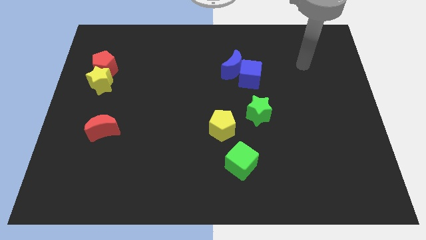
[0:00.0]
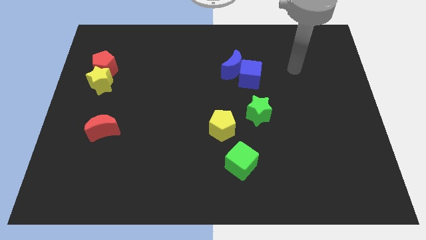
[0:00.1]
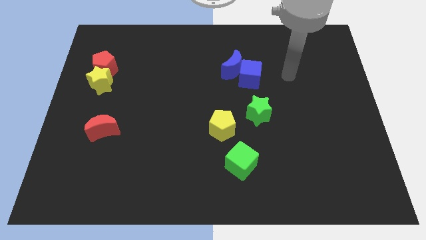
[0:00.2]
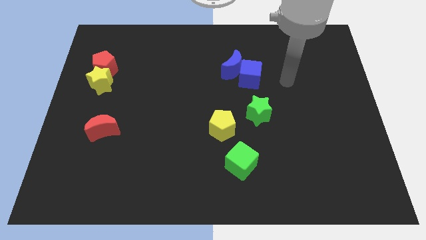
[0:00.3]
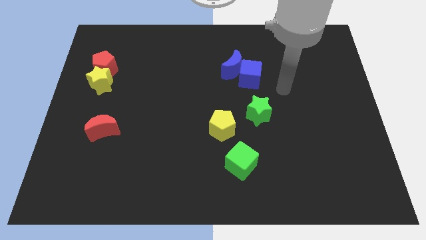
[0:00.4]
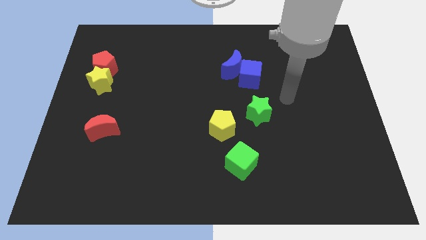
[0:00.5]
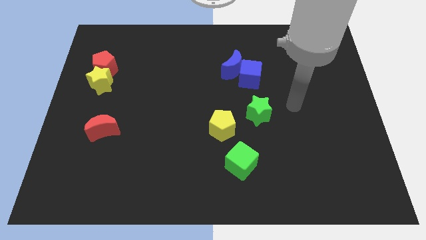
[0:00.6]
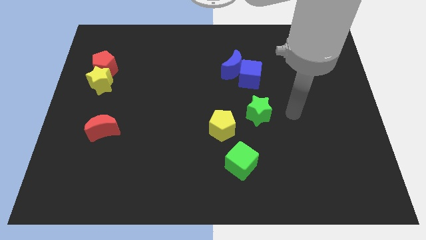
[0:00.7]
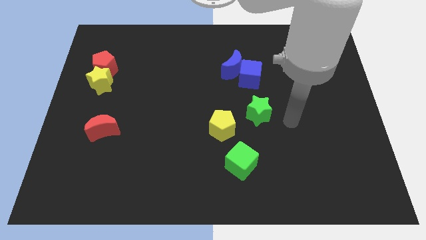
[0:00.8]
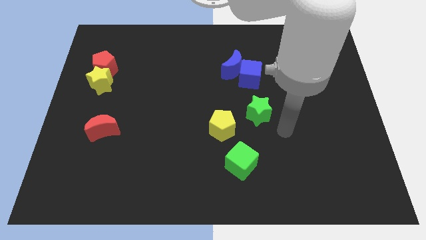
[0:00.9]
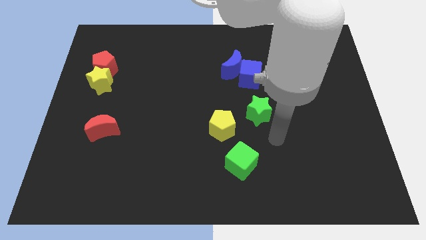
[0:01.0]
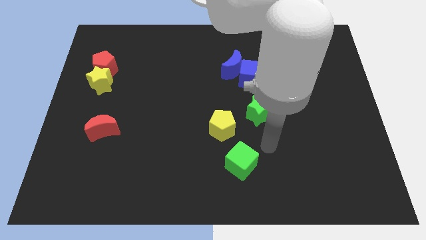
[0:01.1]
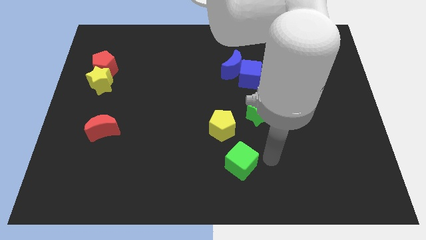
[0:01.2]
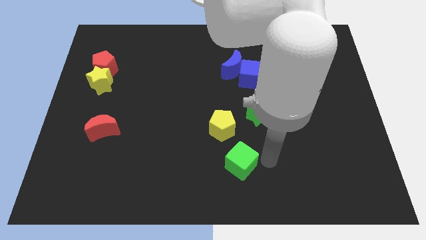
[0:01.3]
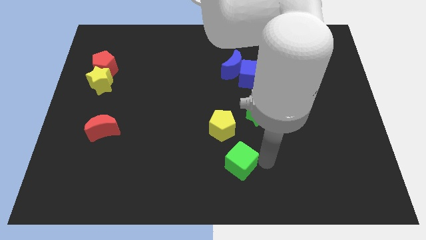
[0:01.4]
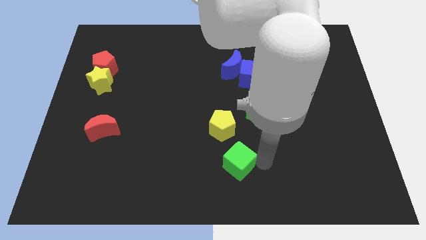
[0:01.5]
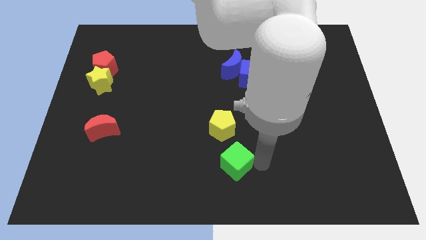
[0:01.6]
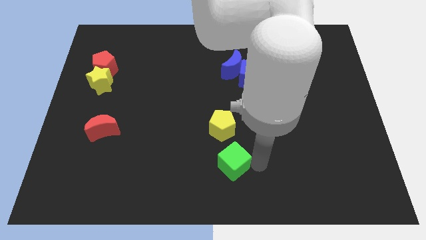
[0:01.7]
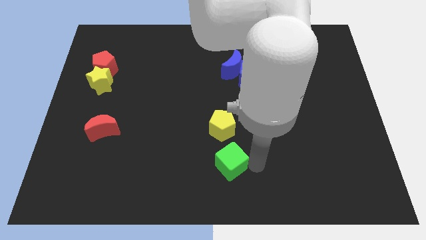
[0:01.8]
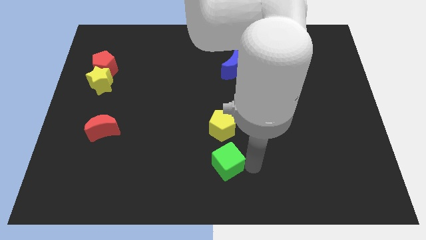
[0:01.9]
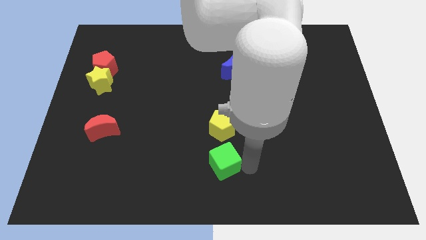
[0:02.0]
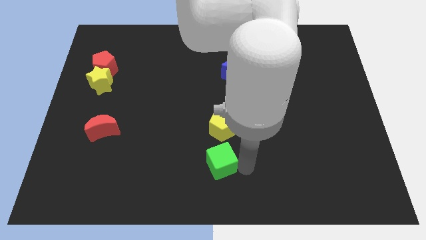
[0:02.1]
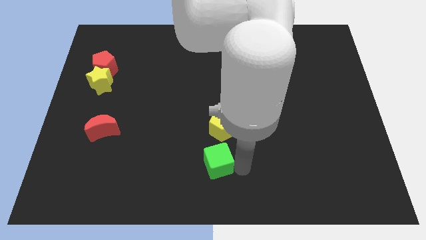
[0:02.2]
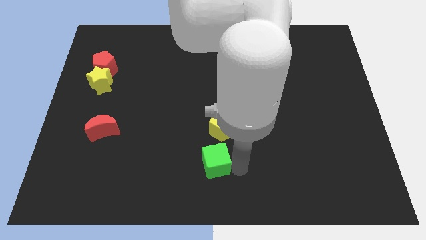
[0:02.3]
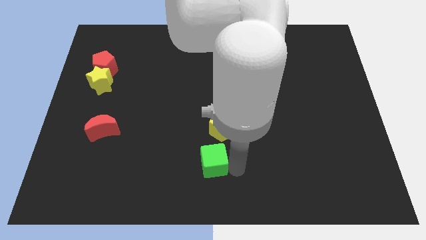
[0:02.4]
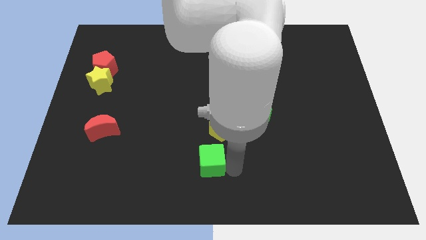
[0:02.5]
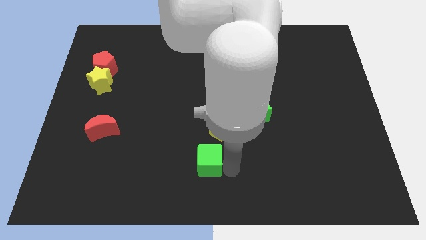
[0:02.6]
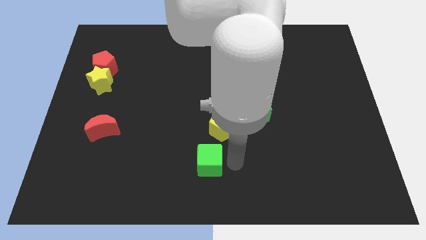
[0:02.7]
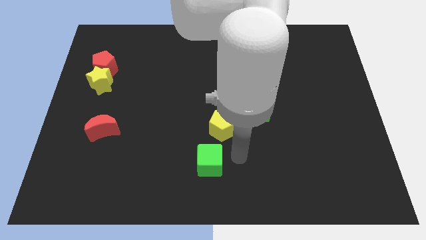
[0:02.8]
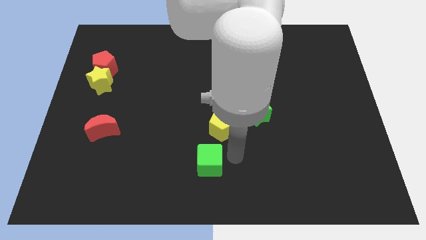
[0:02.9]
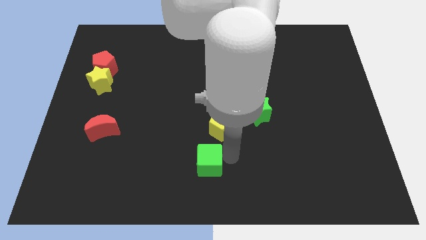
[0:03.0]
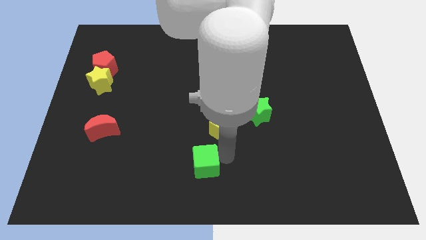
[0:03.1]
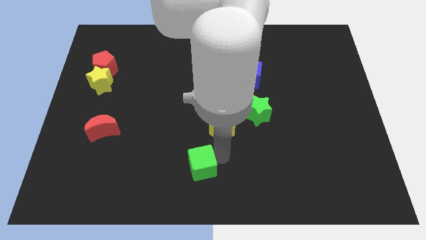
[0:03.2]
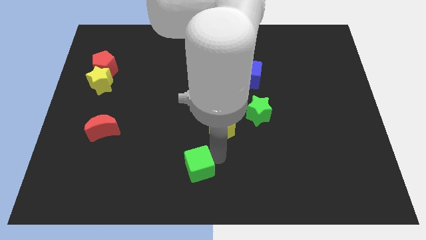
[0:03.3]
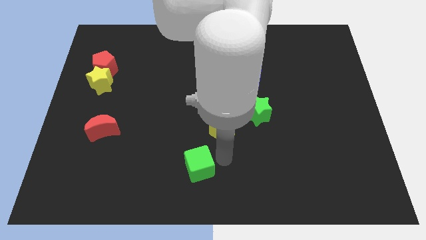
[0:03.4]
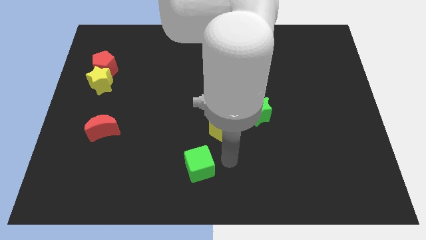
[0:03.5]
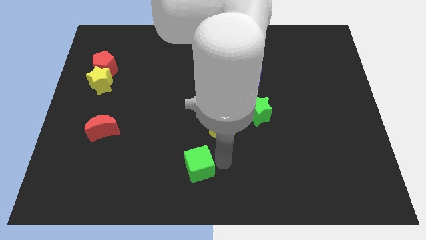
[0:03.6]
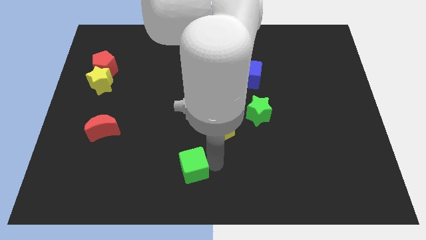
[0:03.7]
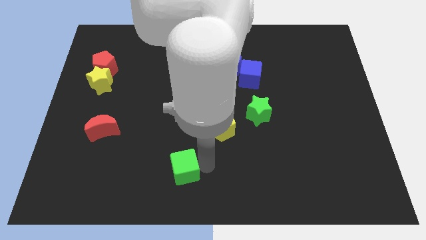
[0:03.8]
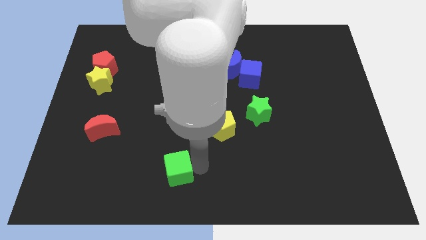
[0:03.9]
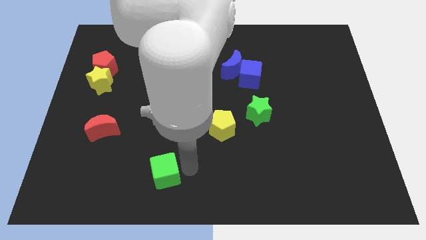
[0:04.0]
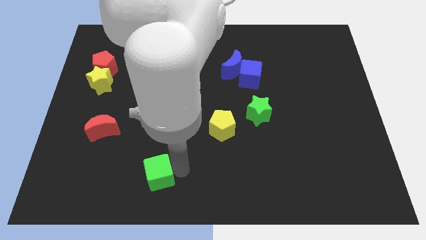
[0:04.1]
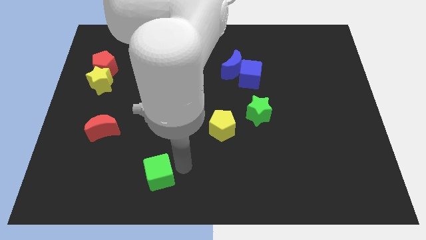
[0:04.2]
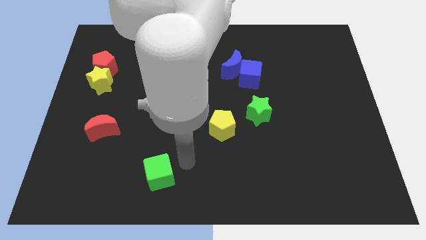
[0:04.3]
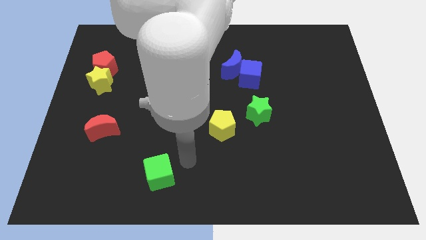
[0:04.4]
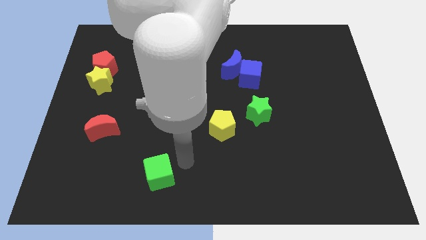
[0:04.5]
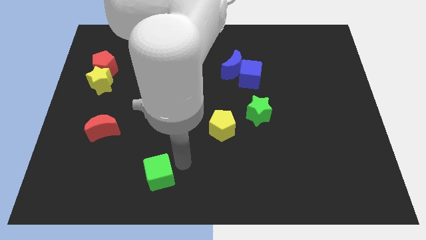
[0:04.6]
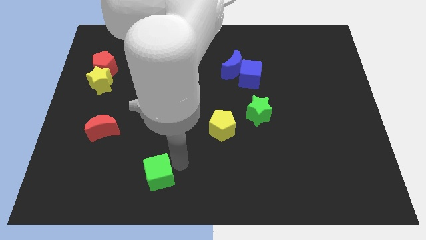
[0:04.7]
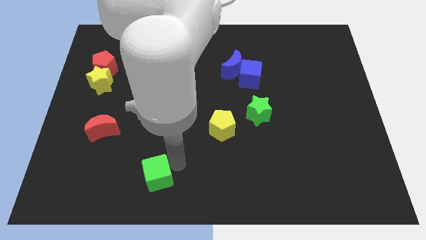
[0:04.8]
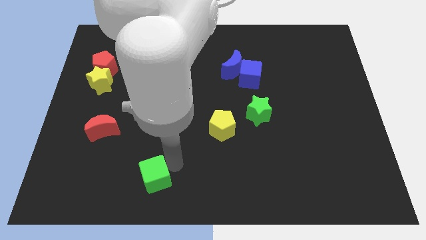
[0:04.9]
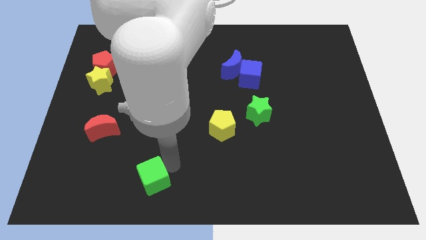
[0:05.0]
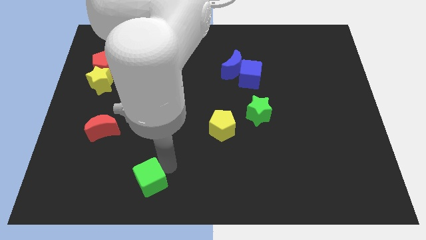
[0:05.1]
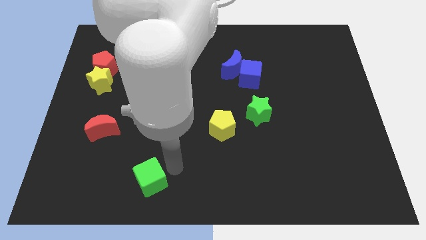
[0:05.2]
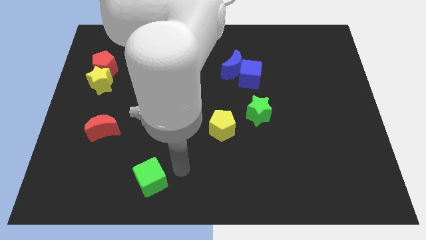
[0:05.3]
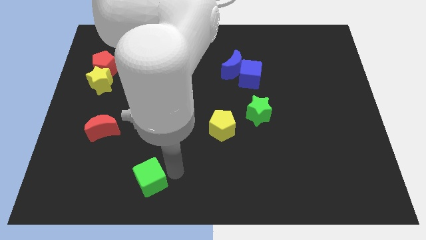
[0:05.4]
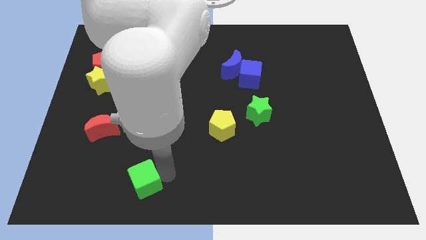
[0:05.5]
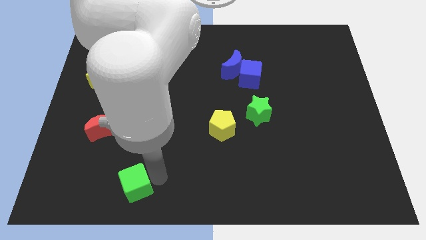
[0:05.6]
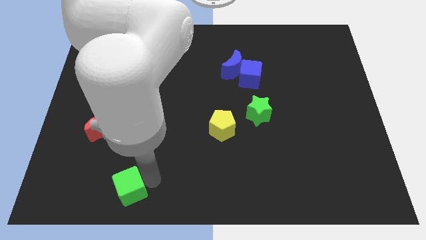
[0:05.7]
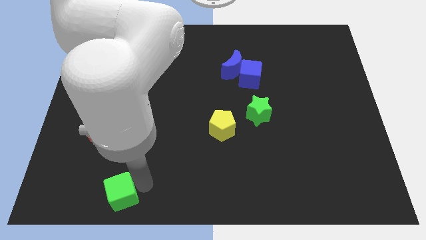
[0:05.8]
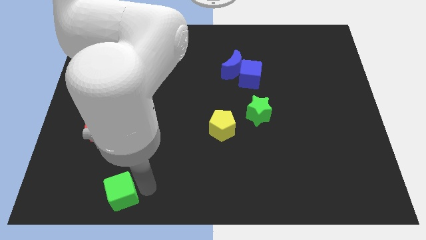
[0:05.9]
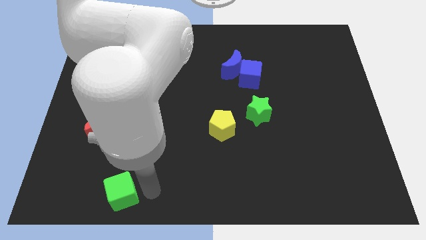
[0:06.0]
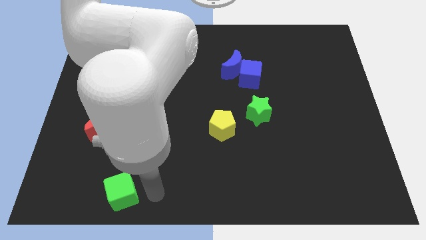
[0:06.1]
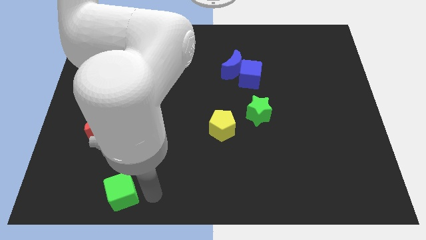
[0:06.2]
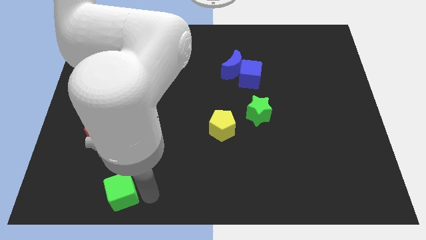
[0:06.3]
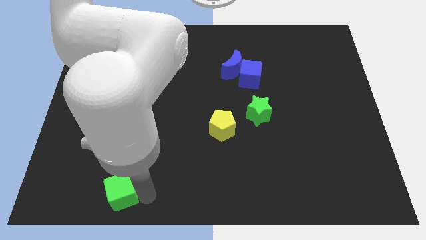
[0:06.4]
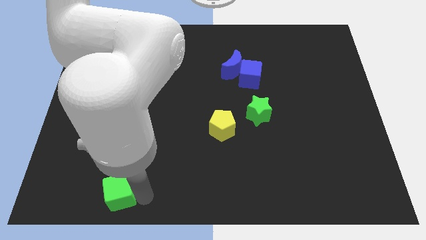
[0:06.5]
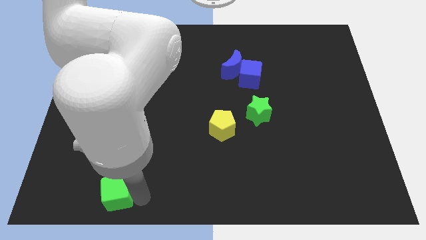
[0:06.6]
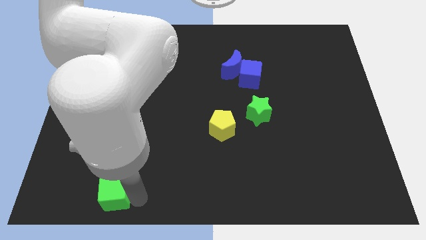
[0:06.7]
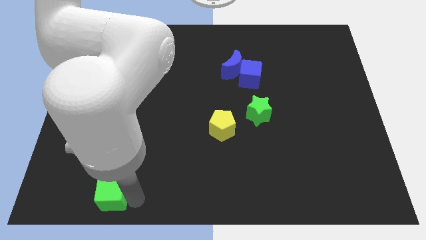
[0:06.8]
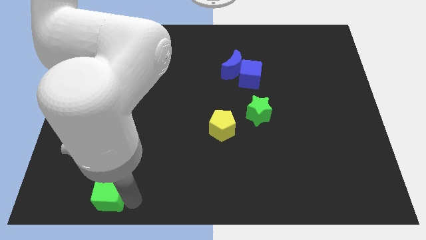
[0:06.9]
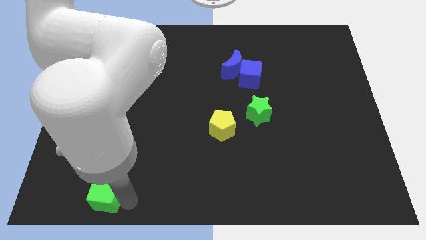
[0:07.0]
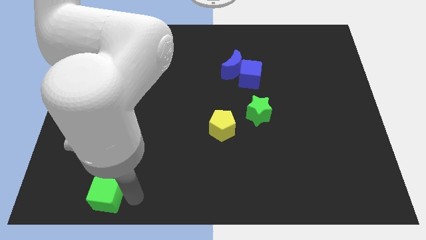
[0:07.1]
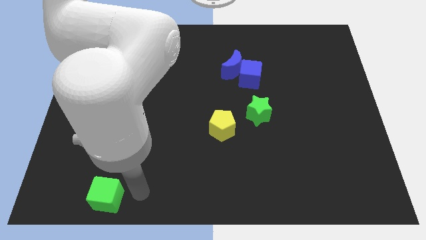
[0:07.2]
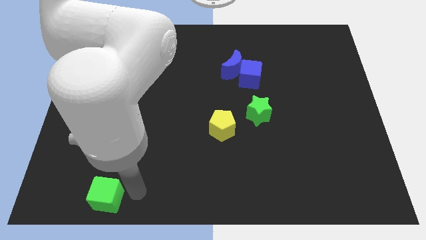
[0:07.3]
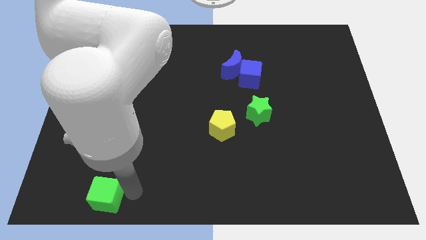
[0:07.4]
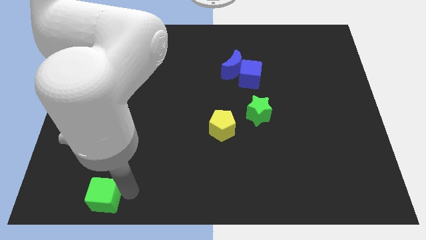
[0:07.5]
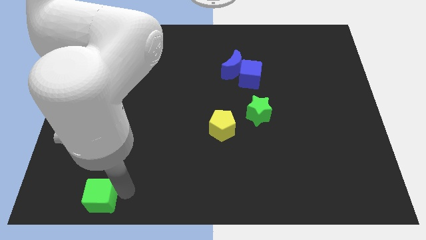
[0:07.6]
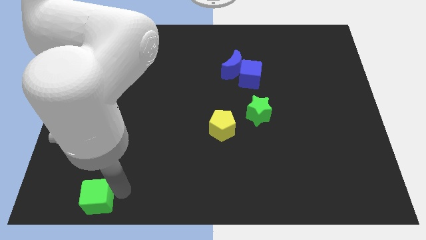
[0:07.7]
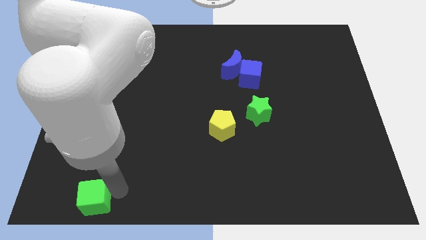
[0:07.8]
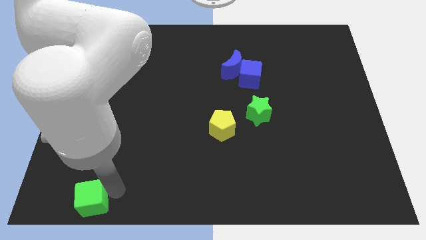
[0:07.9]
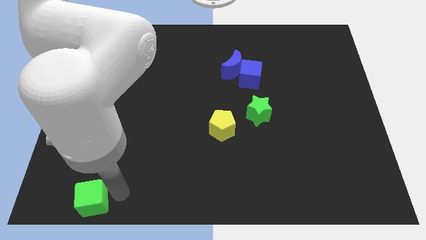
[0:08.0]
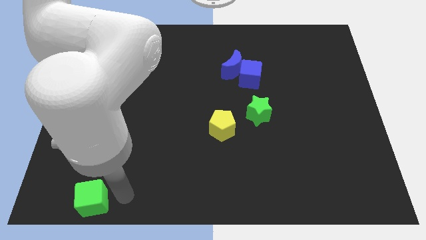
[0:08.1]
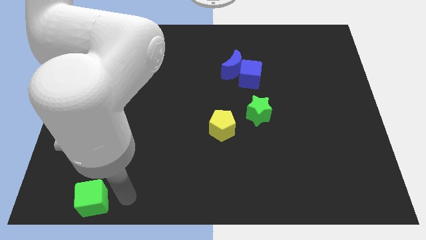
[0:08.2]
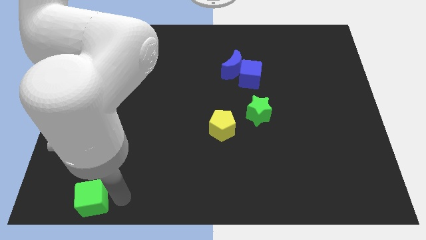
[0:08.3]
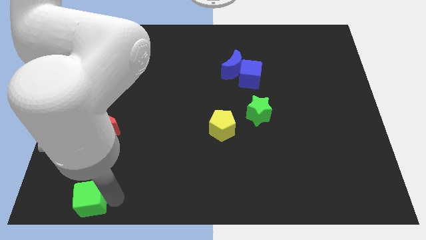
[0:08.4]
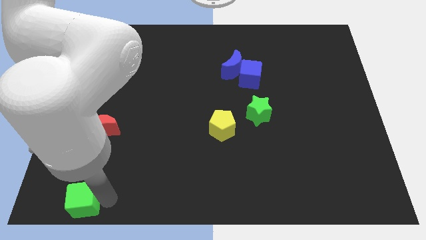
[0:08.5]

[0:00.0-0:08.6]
move the green cube to the lower left corner
